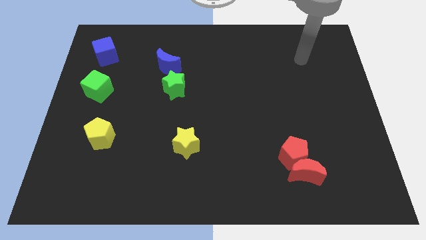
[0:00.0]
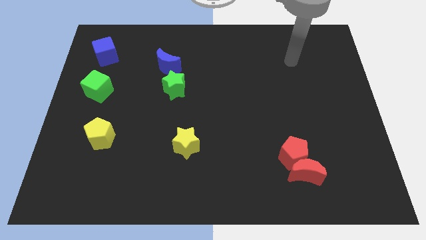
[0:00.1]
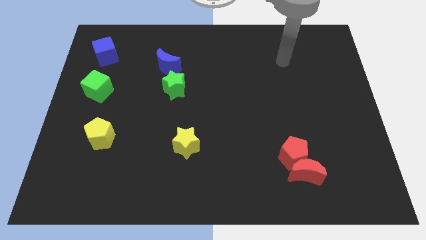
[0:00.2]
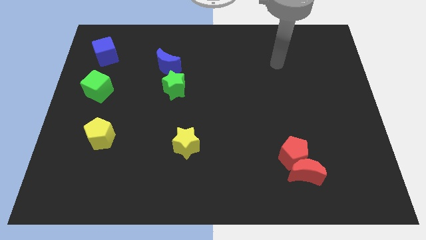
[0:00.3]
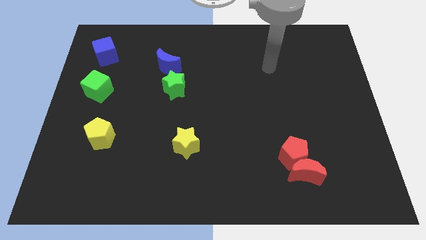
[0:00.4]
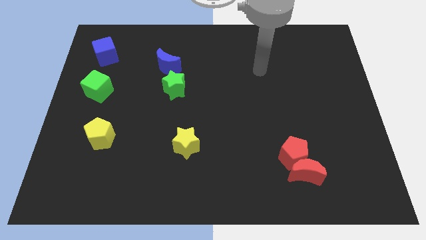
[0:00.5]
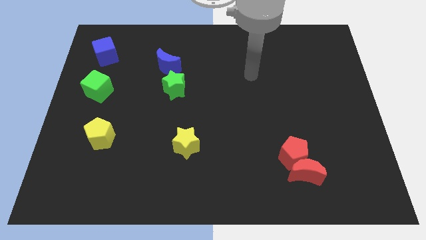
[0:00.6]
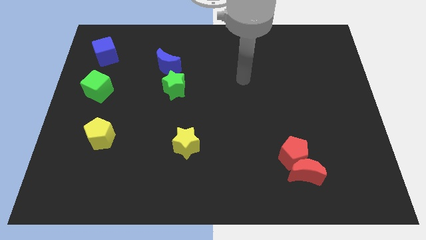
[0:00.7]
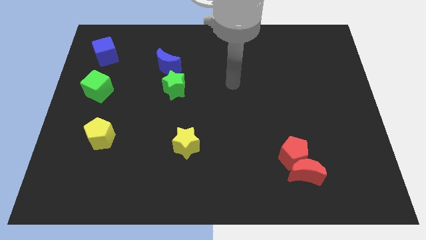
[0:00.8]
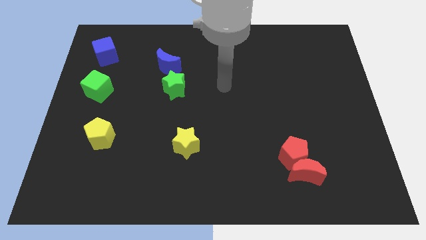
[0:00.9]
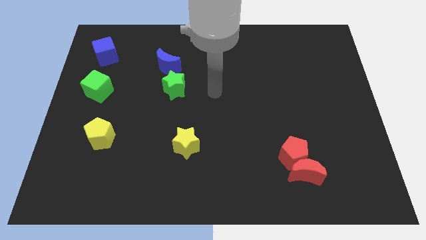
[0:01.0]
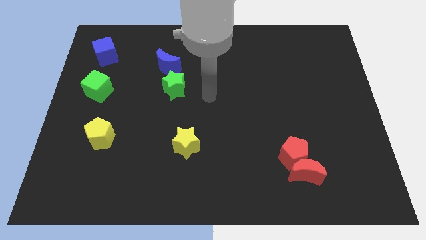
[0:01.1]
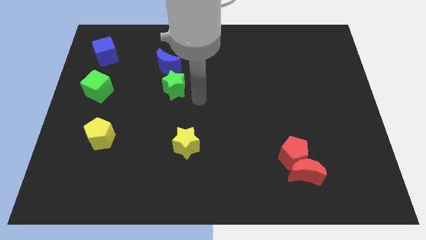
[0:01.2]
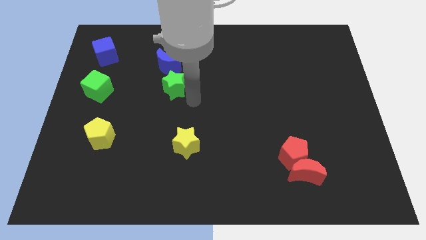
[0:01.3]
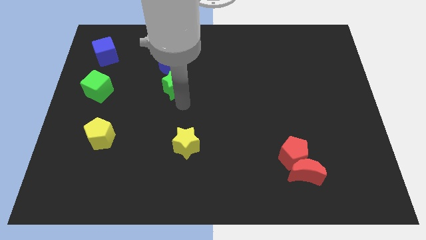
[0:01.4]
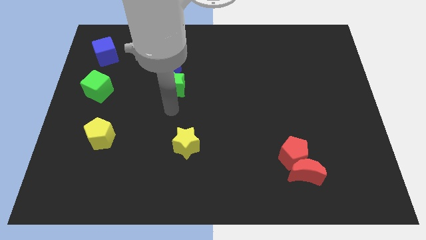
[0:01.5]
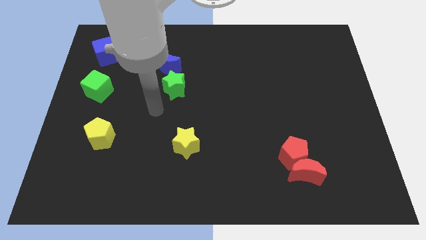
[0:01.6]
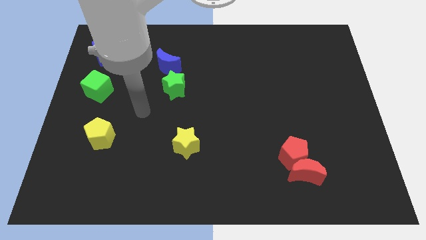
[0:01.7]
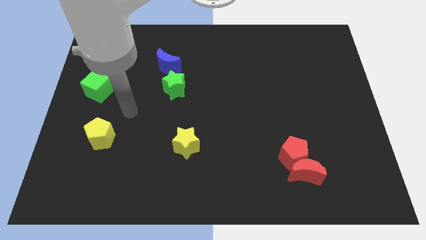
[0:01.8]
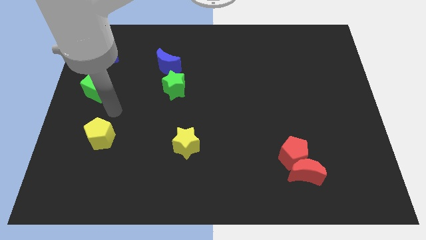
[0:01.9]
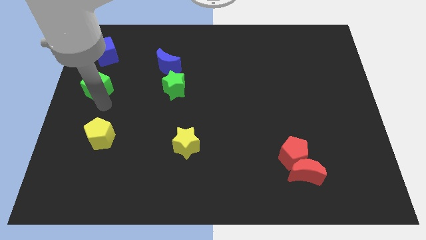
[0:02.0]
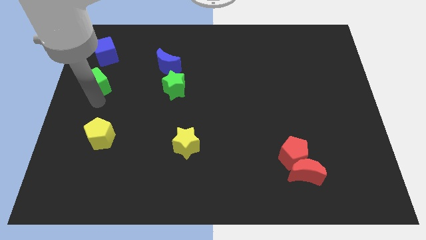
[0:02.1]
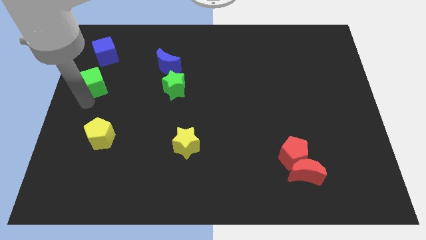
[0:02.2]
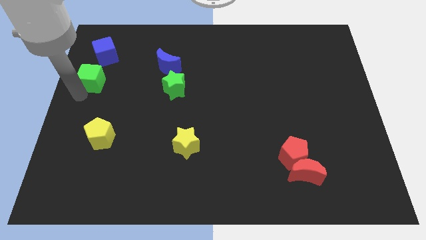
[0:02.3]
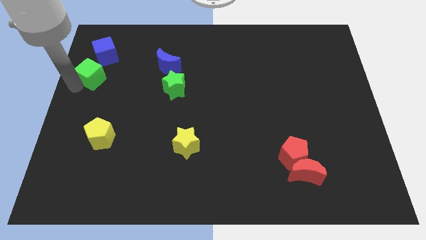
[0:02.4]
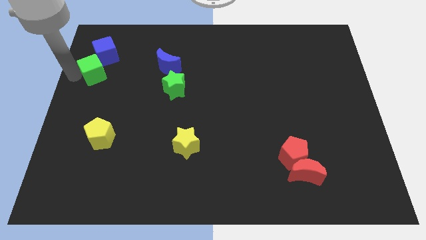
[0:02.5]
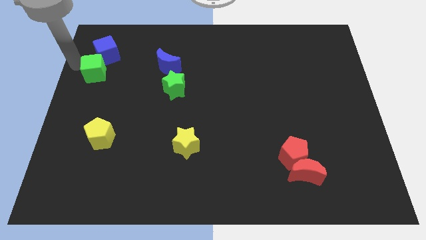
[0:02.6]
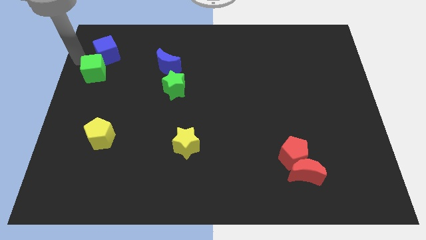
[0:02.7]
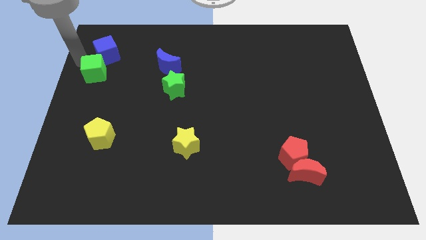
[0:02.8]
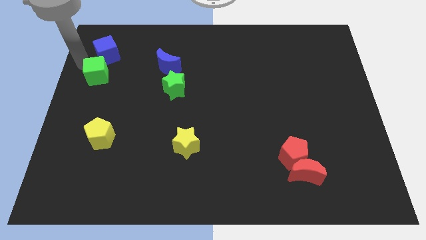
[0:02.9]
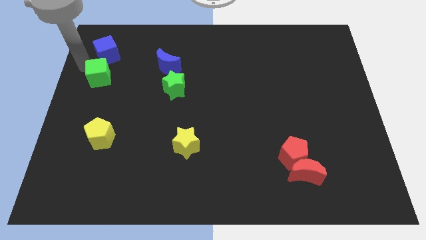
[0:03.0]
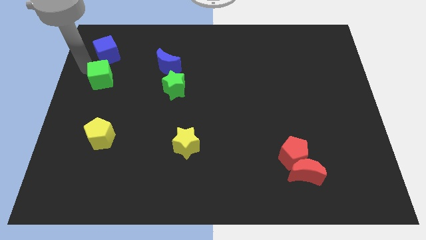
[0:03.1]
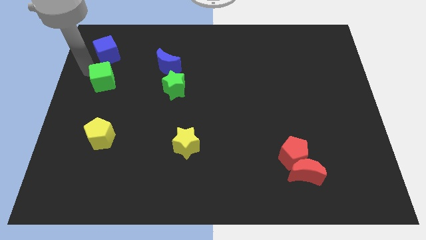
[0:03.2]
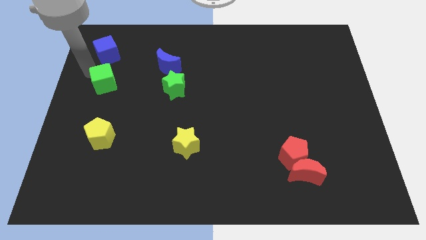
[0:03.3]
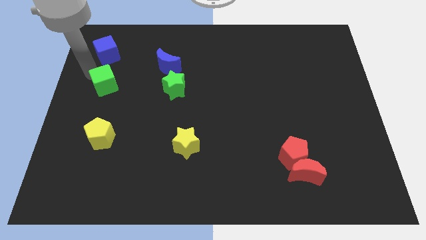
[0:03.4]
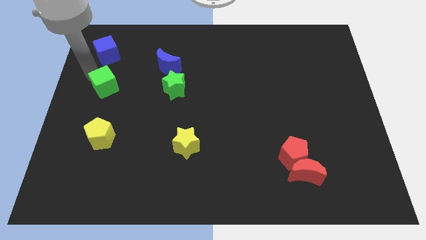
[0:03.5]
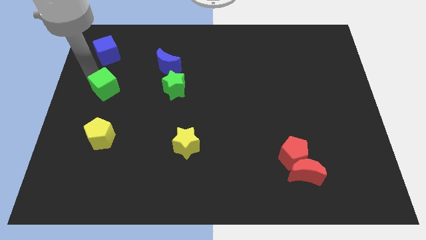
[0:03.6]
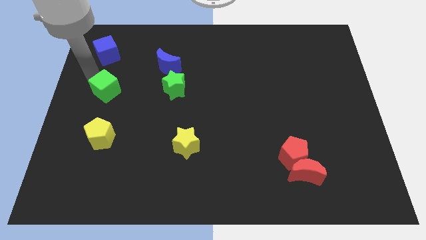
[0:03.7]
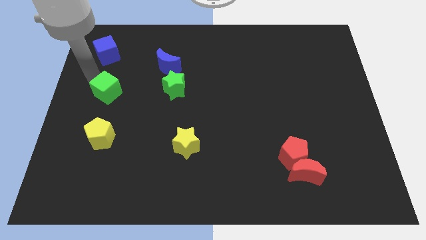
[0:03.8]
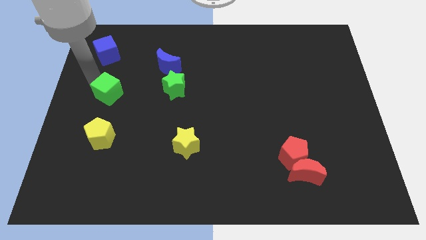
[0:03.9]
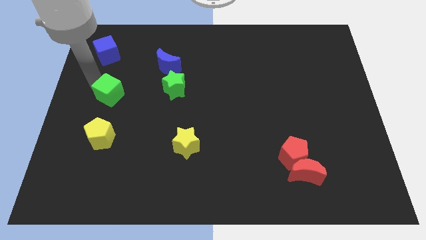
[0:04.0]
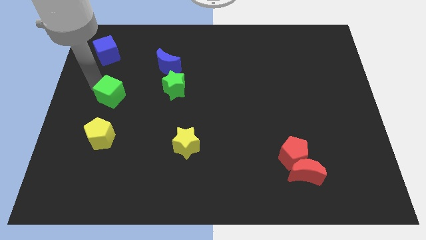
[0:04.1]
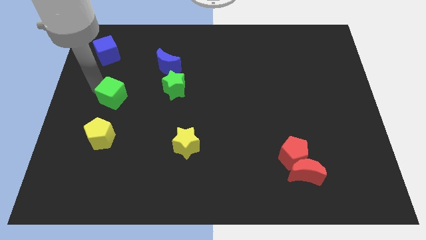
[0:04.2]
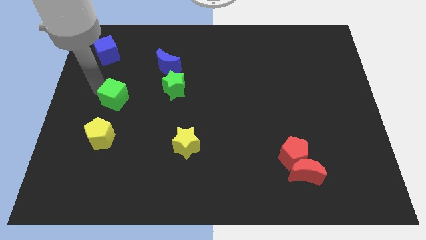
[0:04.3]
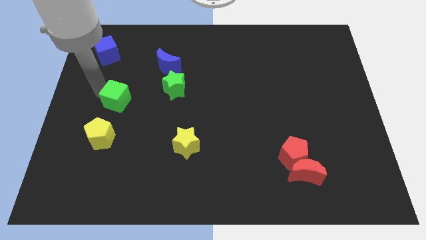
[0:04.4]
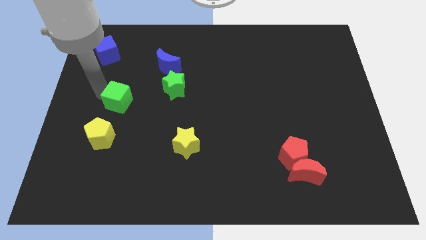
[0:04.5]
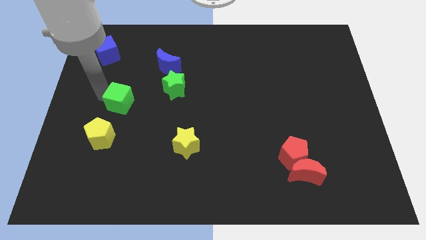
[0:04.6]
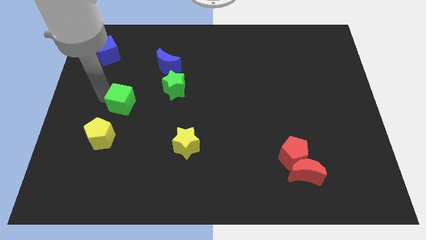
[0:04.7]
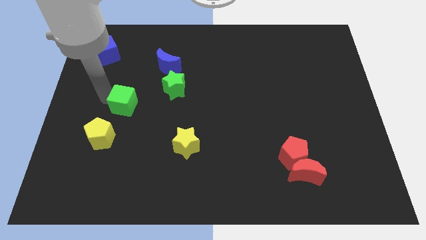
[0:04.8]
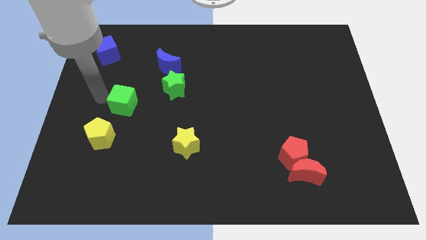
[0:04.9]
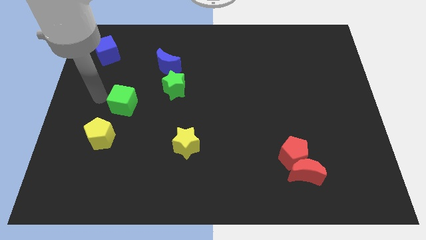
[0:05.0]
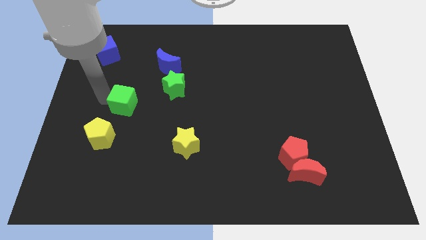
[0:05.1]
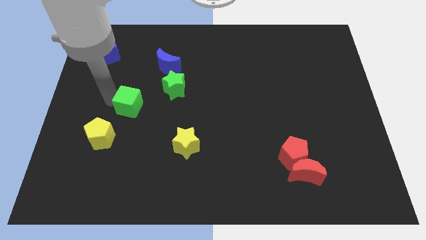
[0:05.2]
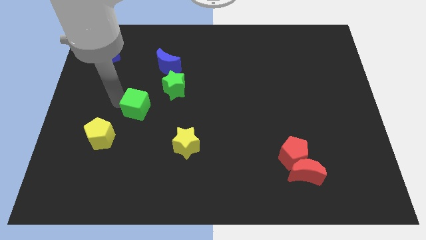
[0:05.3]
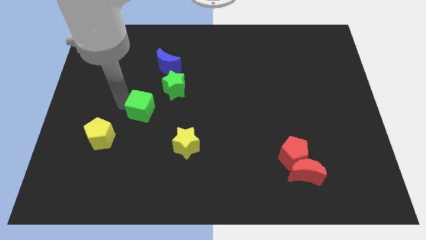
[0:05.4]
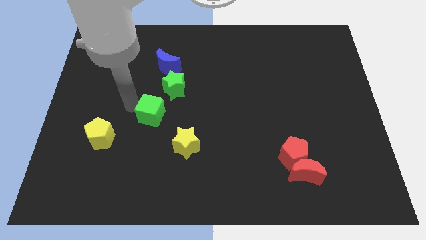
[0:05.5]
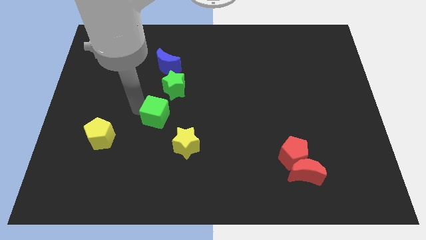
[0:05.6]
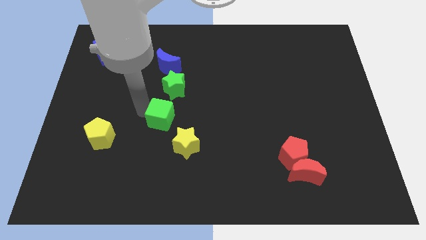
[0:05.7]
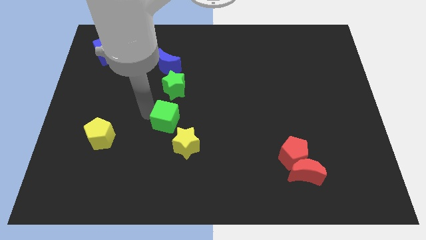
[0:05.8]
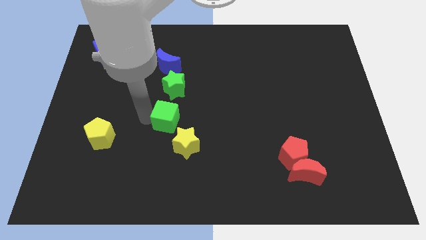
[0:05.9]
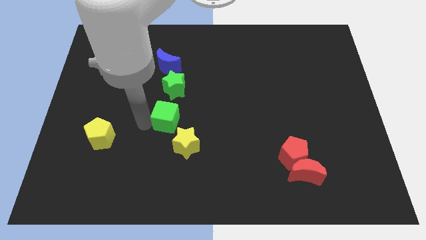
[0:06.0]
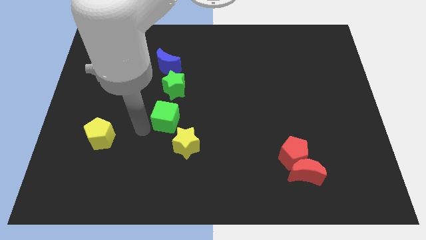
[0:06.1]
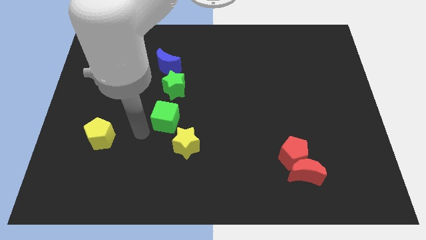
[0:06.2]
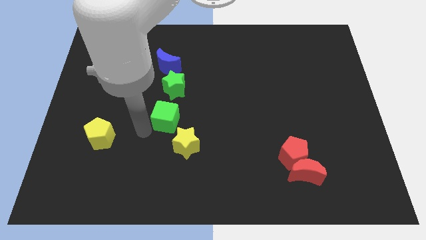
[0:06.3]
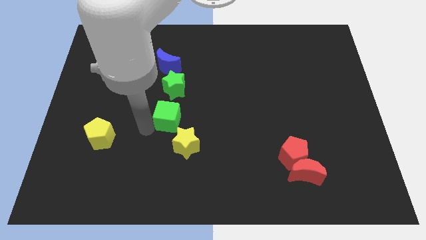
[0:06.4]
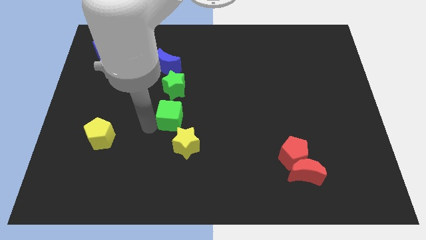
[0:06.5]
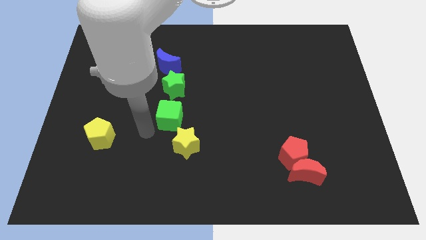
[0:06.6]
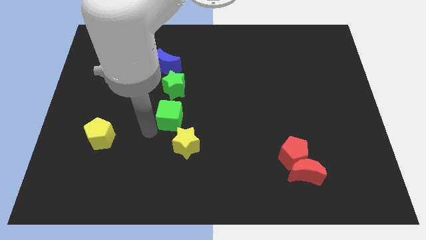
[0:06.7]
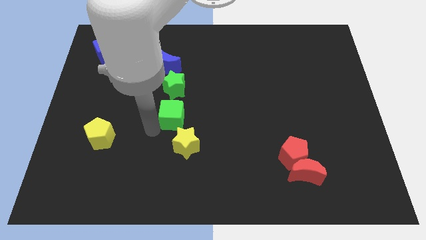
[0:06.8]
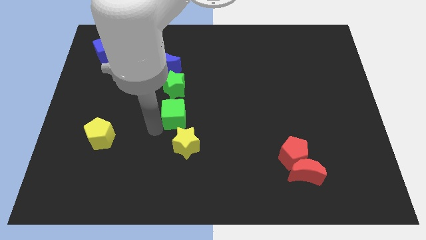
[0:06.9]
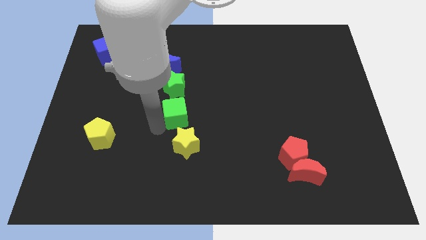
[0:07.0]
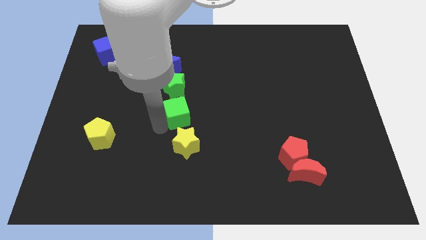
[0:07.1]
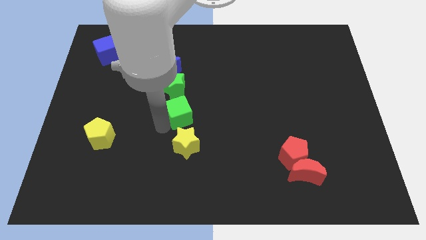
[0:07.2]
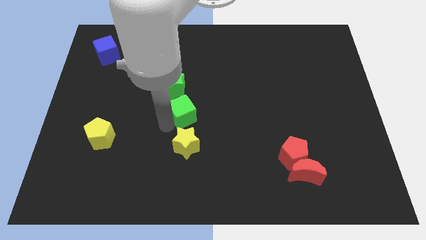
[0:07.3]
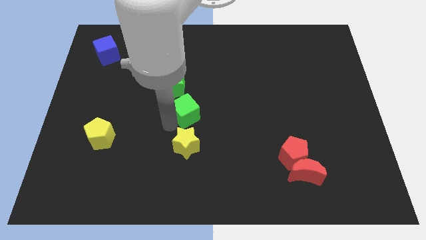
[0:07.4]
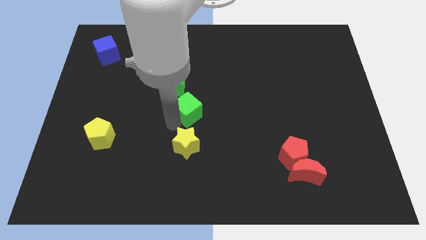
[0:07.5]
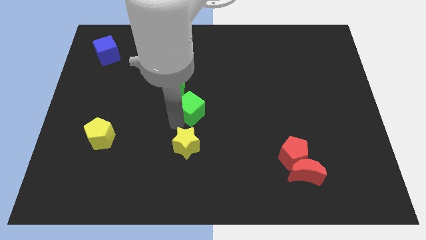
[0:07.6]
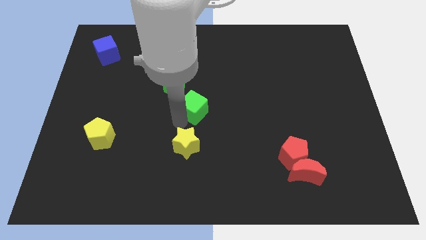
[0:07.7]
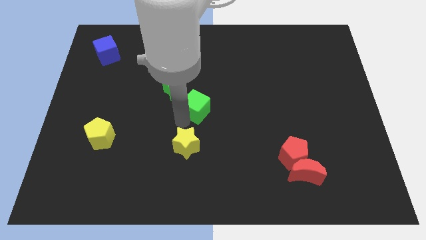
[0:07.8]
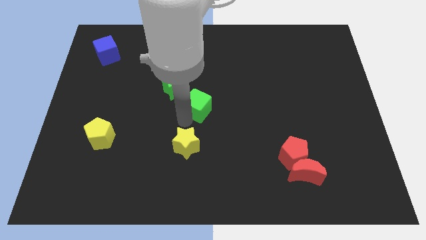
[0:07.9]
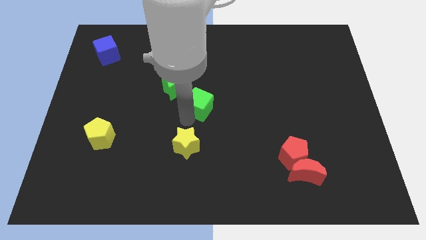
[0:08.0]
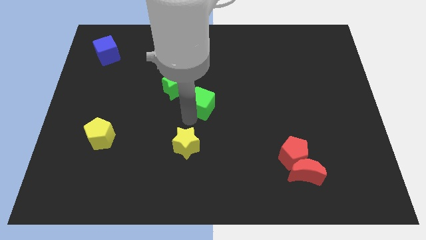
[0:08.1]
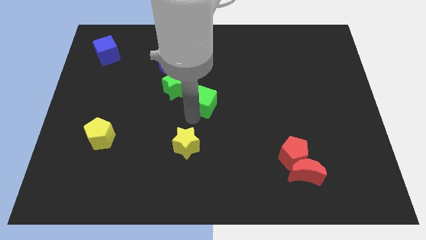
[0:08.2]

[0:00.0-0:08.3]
push the green cube to the right side of the green star
